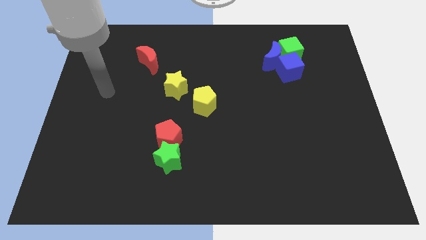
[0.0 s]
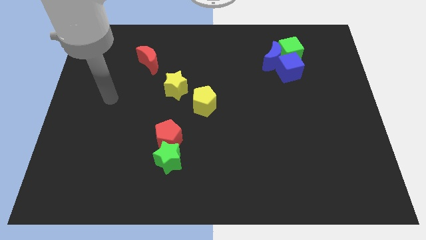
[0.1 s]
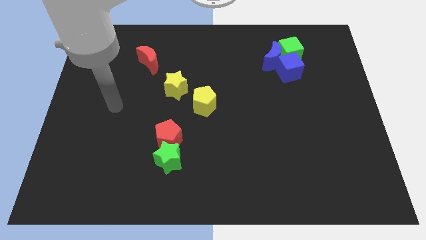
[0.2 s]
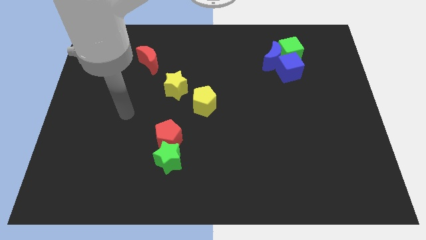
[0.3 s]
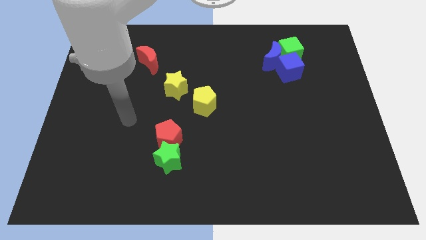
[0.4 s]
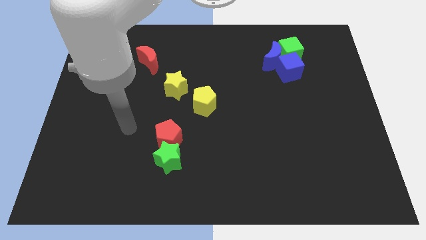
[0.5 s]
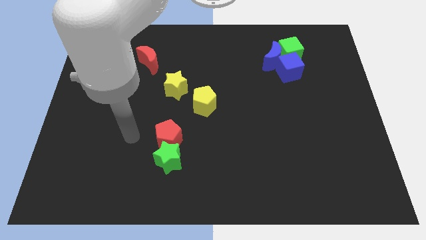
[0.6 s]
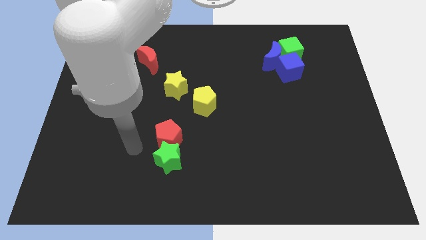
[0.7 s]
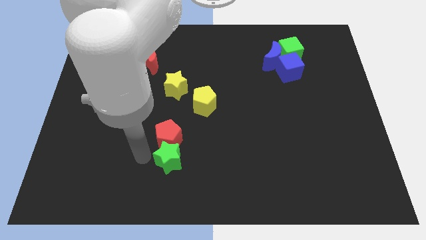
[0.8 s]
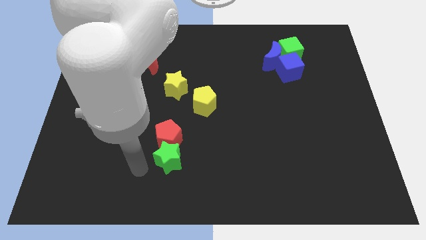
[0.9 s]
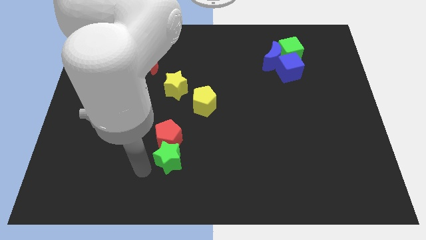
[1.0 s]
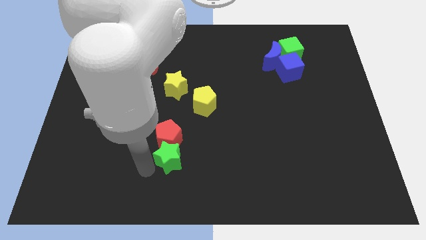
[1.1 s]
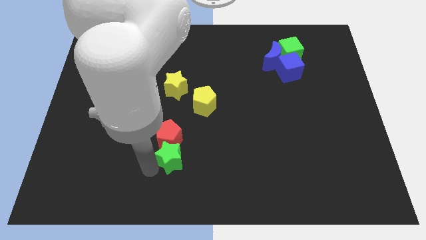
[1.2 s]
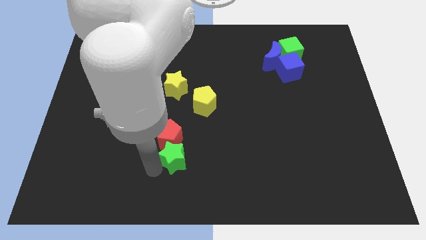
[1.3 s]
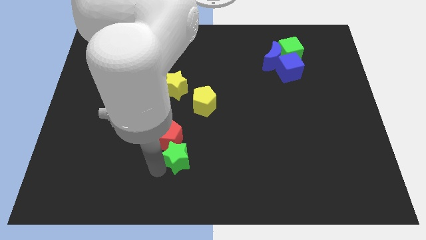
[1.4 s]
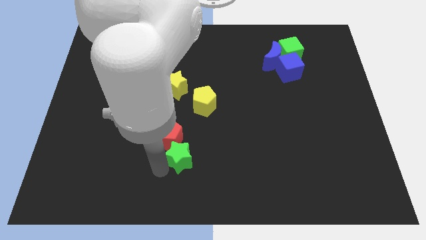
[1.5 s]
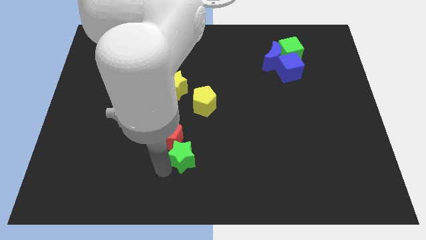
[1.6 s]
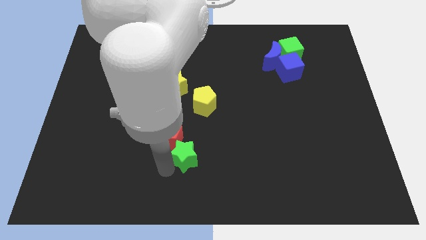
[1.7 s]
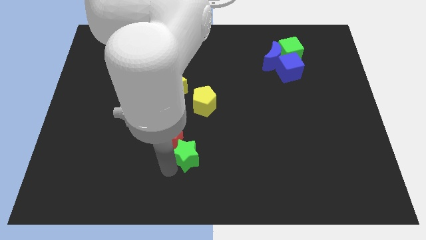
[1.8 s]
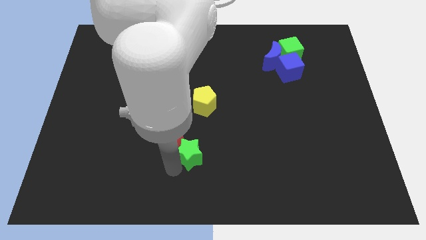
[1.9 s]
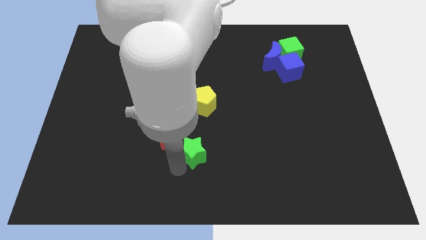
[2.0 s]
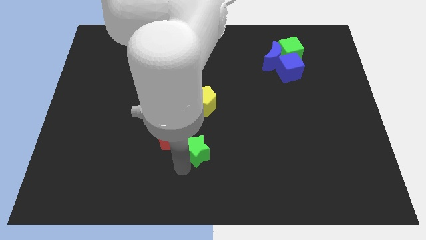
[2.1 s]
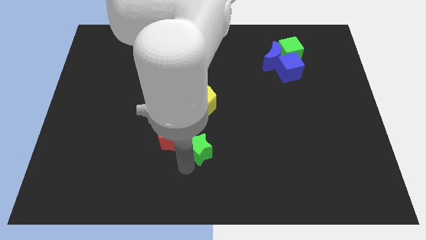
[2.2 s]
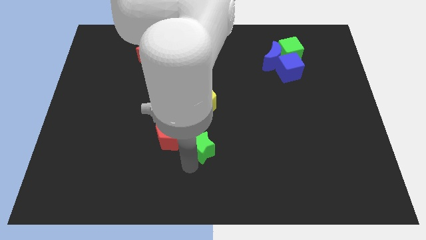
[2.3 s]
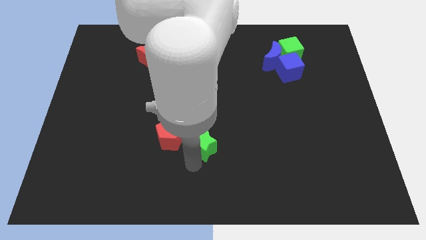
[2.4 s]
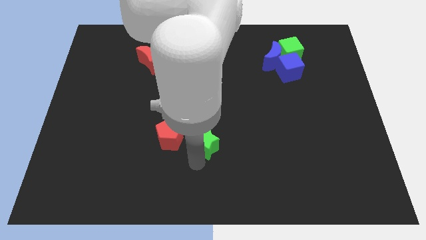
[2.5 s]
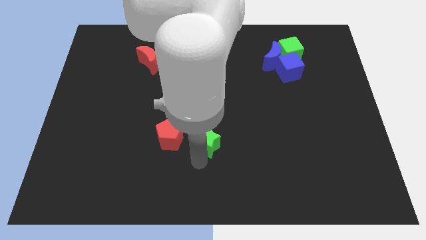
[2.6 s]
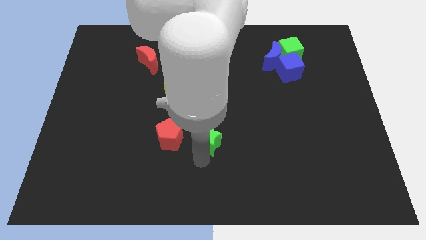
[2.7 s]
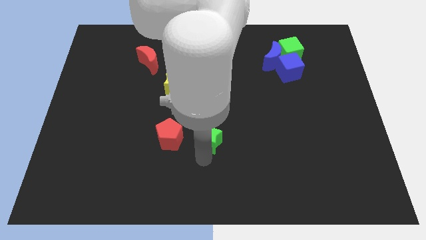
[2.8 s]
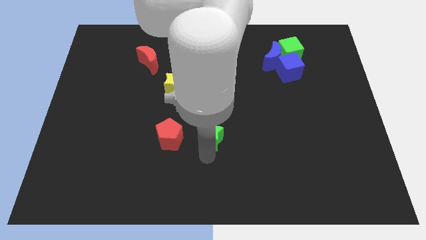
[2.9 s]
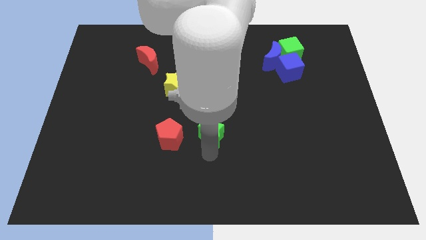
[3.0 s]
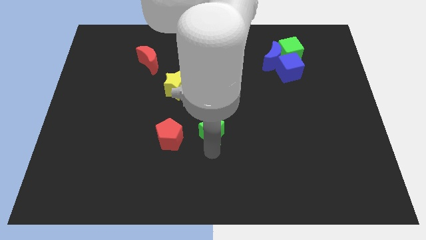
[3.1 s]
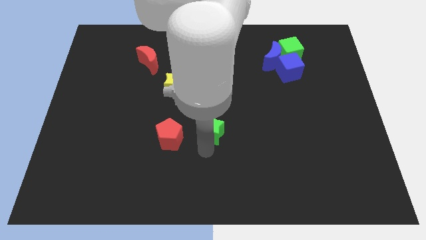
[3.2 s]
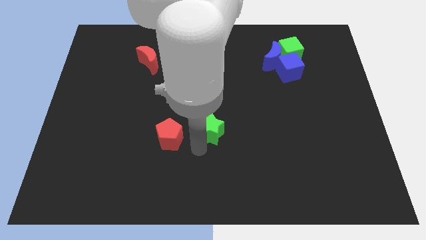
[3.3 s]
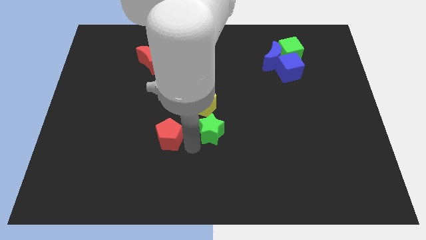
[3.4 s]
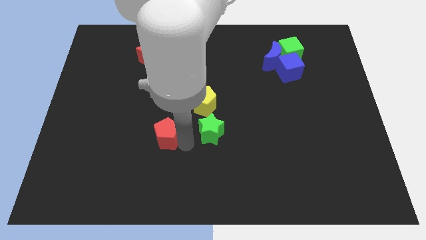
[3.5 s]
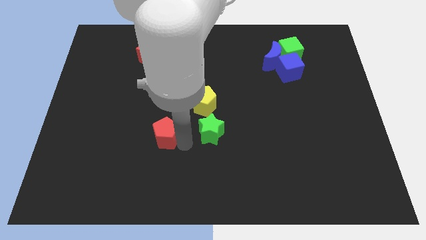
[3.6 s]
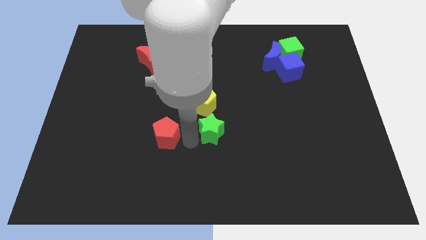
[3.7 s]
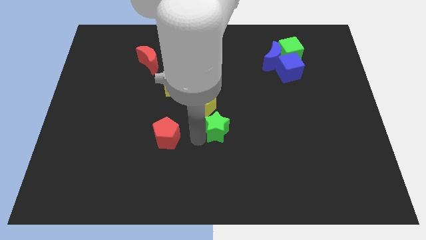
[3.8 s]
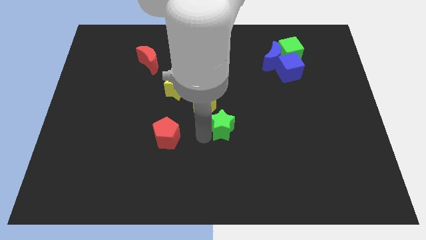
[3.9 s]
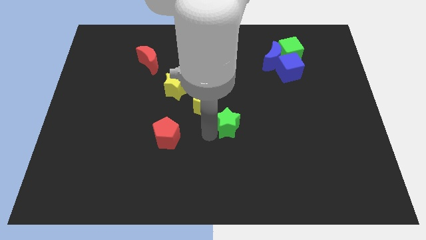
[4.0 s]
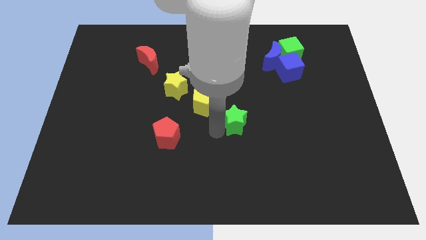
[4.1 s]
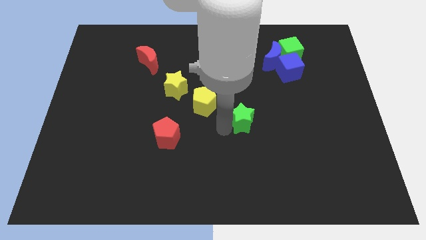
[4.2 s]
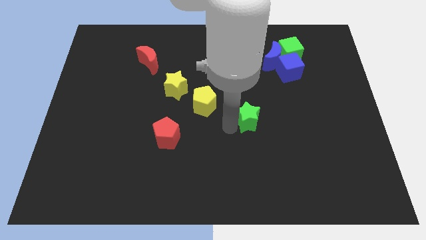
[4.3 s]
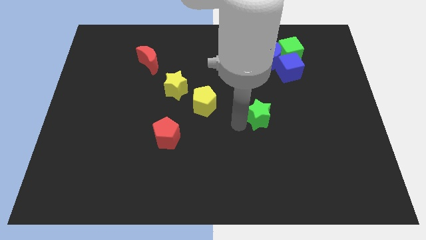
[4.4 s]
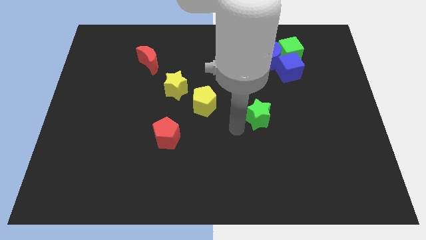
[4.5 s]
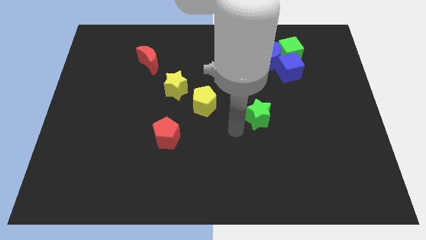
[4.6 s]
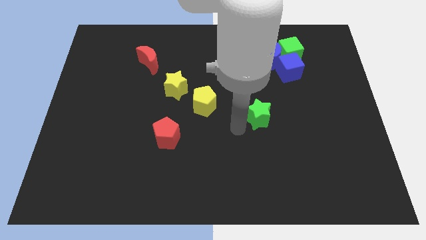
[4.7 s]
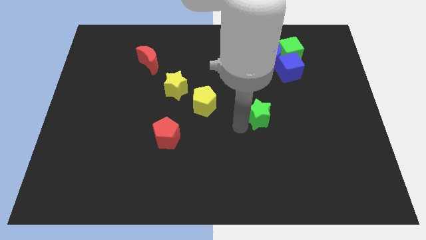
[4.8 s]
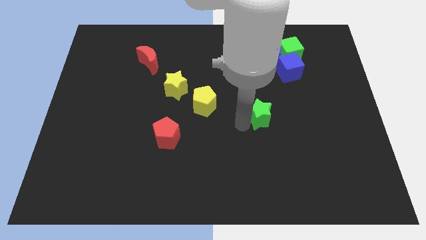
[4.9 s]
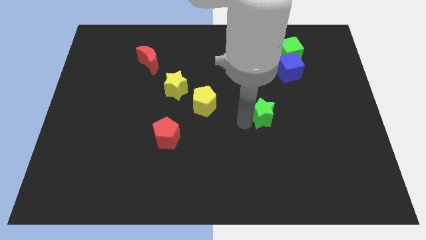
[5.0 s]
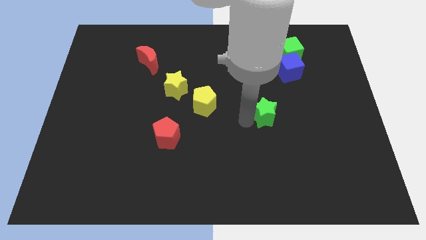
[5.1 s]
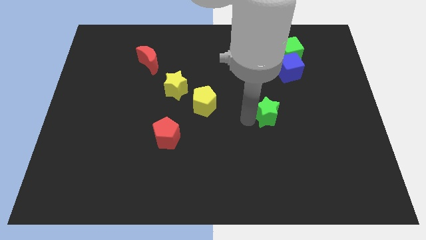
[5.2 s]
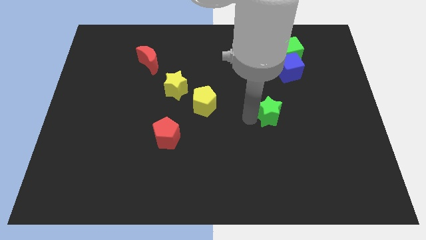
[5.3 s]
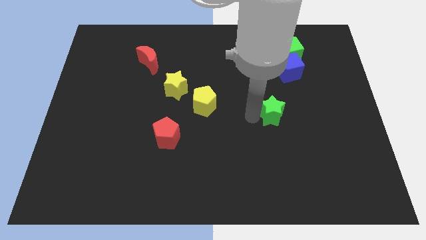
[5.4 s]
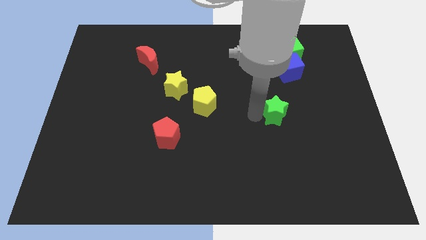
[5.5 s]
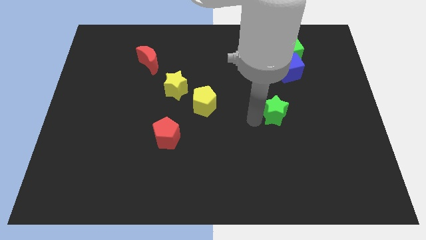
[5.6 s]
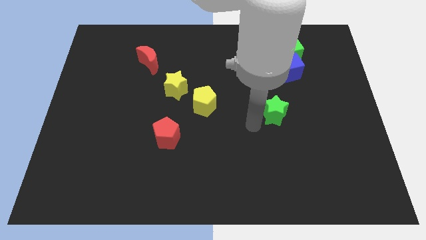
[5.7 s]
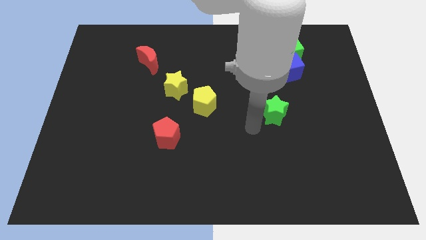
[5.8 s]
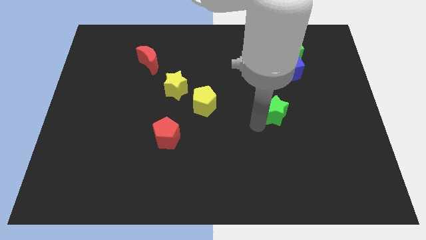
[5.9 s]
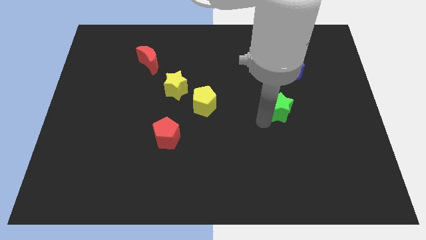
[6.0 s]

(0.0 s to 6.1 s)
put the green star to the bottom of the blue cube

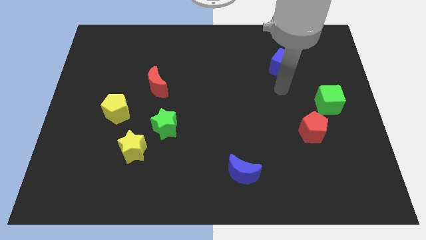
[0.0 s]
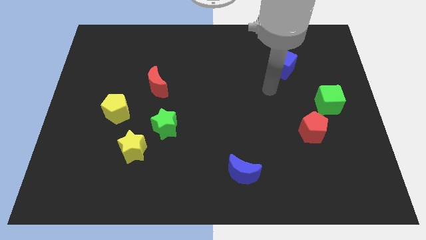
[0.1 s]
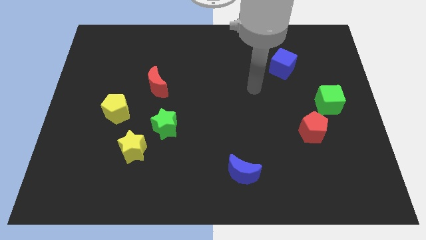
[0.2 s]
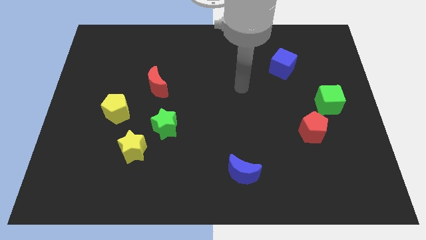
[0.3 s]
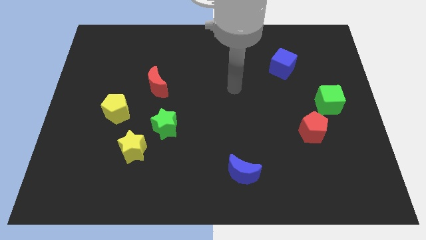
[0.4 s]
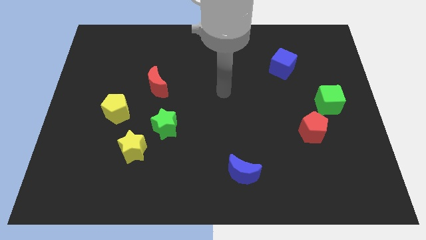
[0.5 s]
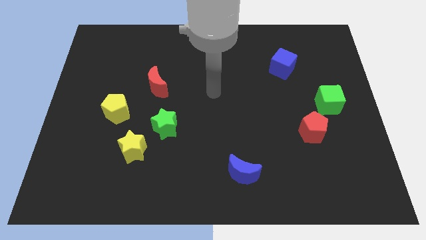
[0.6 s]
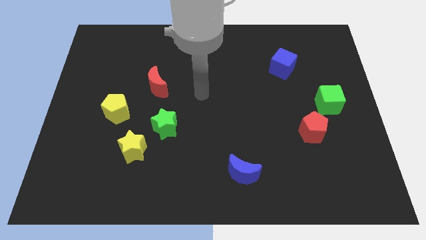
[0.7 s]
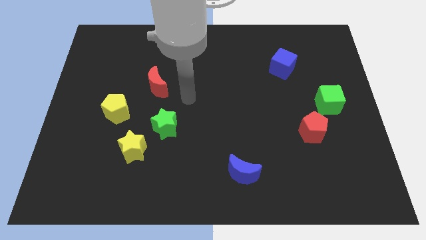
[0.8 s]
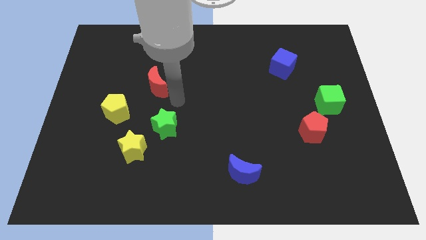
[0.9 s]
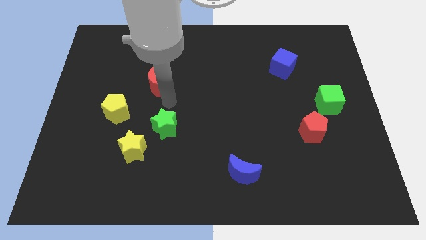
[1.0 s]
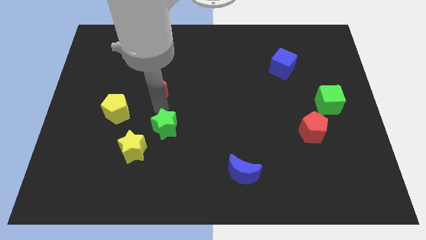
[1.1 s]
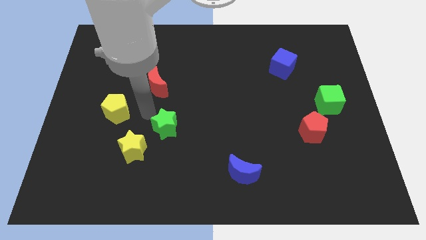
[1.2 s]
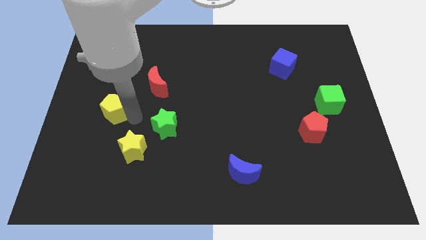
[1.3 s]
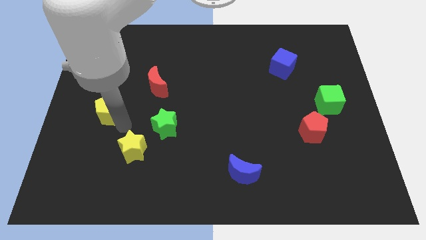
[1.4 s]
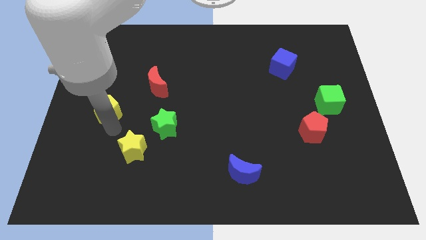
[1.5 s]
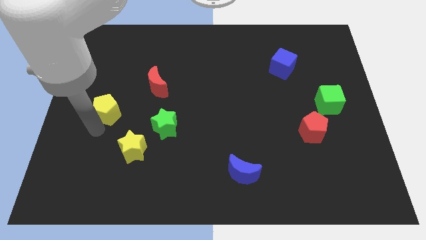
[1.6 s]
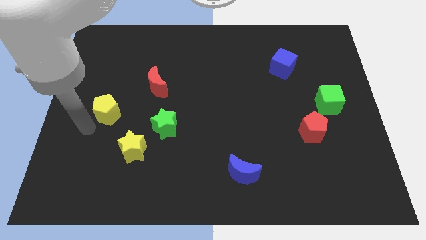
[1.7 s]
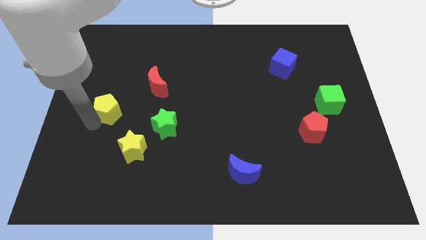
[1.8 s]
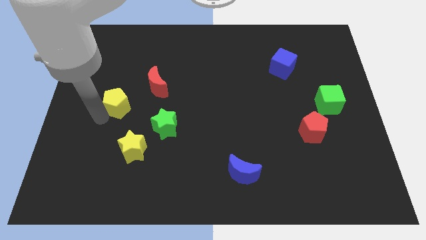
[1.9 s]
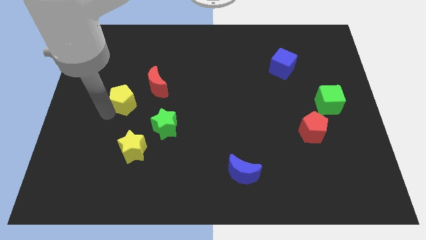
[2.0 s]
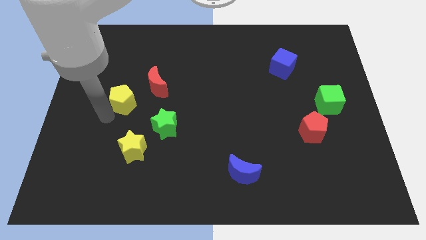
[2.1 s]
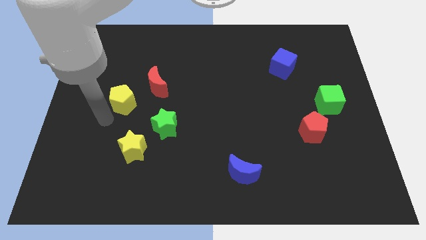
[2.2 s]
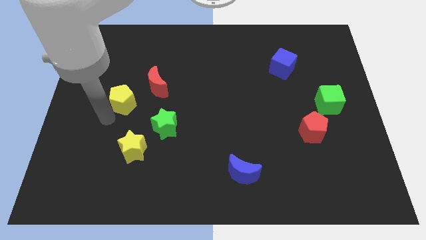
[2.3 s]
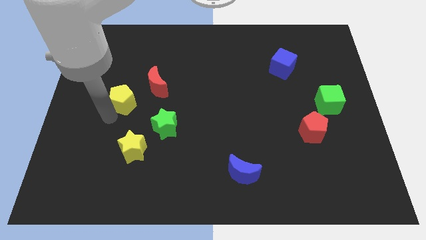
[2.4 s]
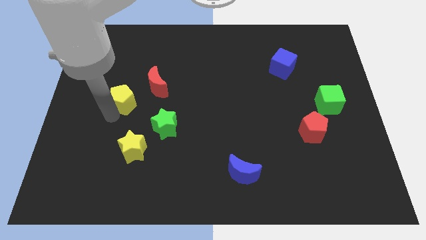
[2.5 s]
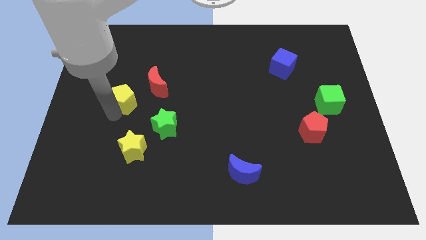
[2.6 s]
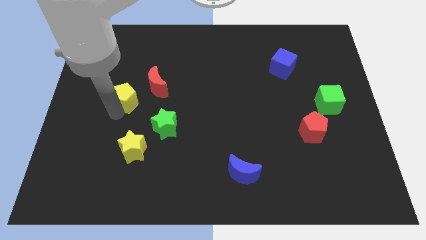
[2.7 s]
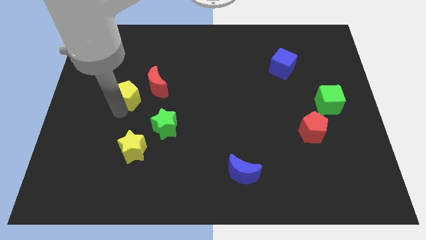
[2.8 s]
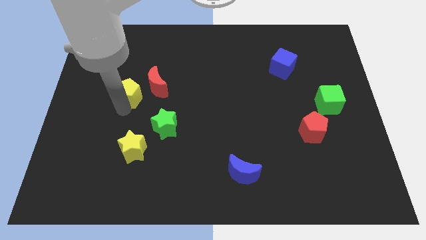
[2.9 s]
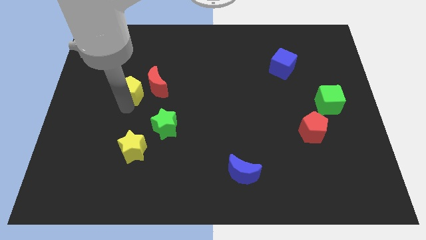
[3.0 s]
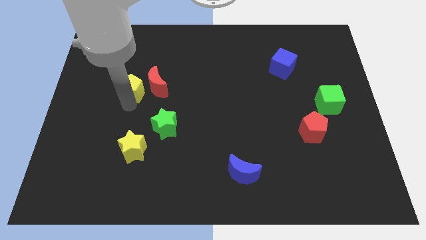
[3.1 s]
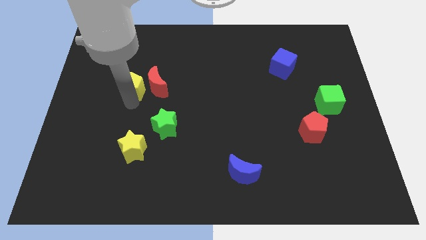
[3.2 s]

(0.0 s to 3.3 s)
move the yellow pentagon to the top left of the red moon
